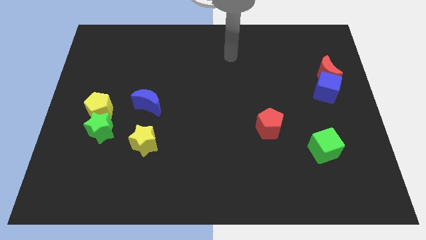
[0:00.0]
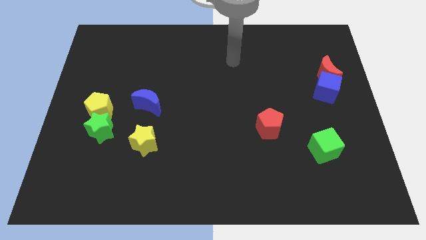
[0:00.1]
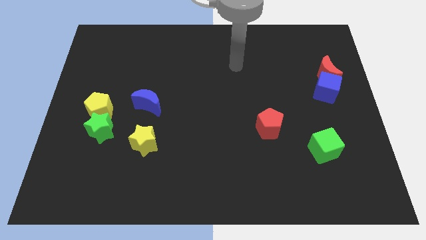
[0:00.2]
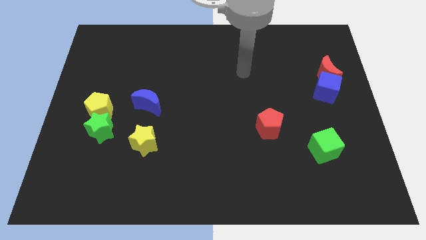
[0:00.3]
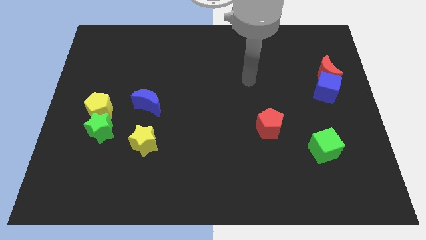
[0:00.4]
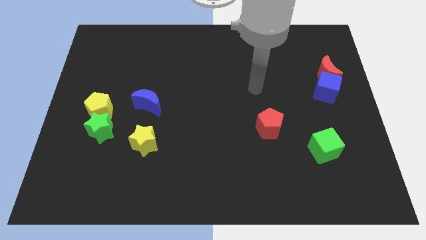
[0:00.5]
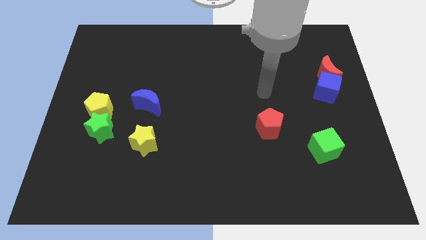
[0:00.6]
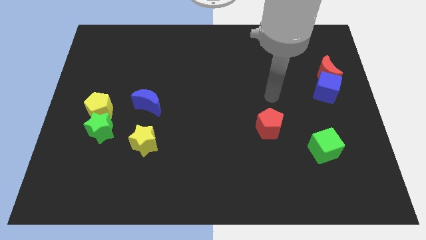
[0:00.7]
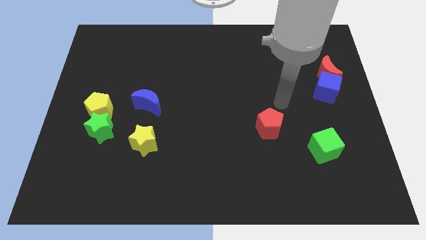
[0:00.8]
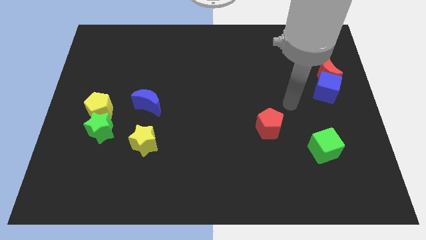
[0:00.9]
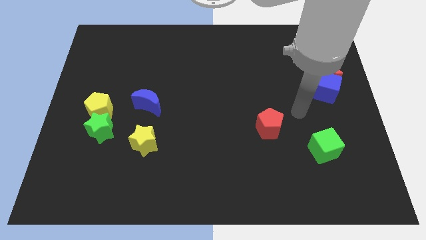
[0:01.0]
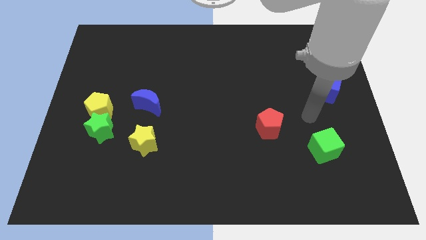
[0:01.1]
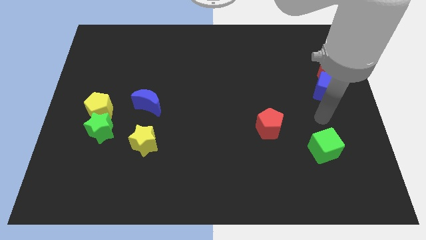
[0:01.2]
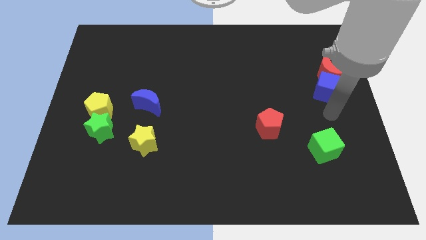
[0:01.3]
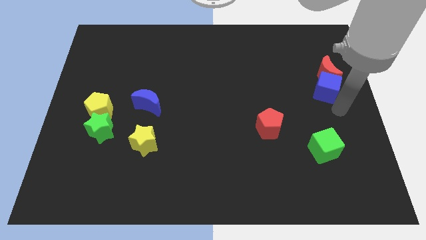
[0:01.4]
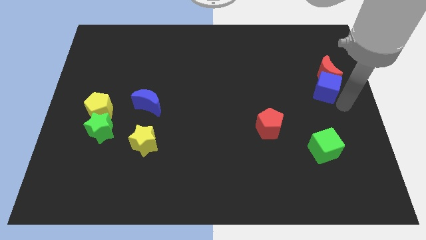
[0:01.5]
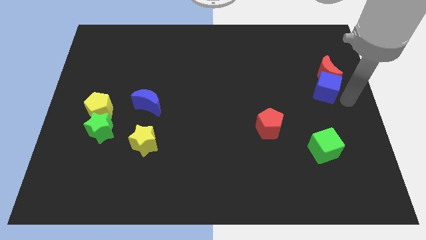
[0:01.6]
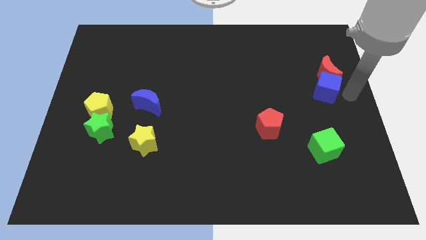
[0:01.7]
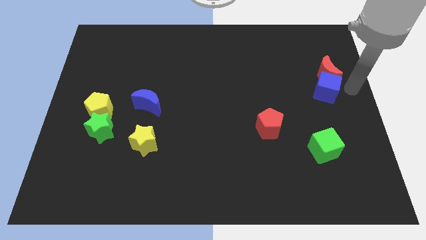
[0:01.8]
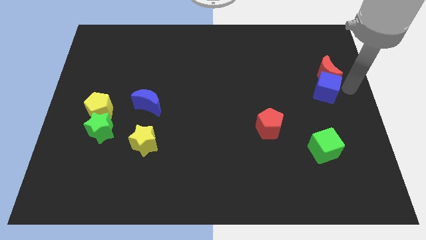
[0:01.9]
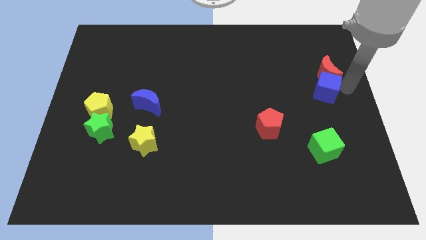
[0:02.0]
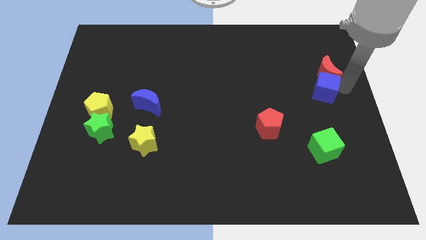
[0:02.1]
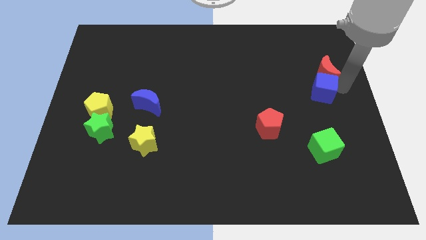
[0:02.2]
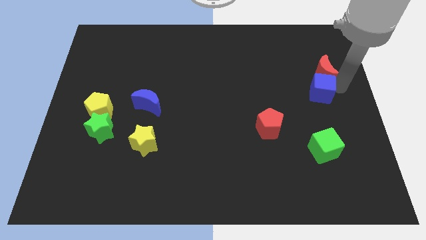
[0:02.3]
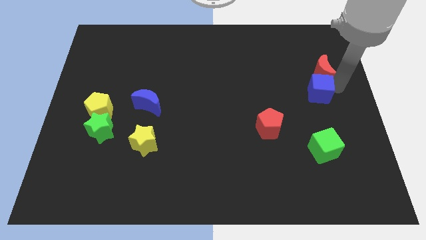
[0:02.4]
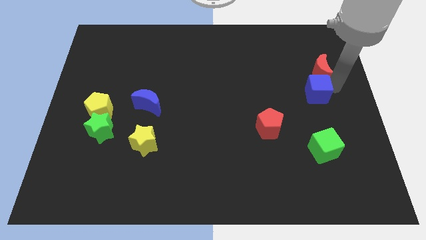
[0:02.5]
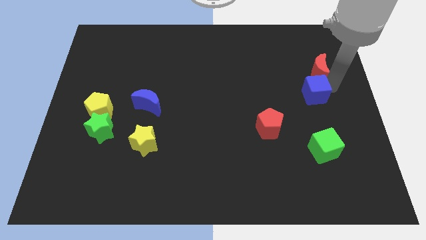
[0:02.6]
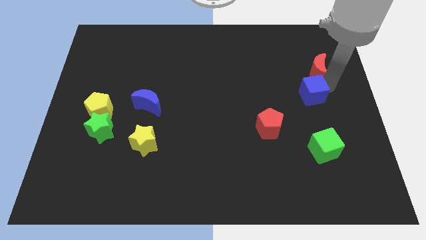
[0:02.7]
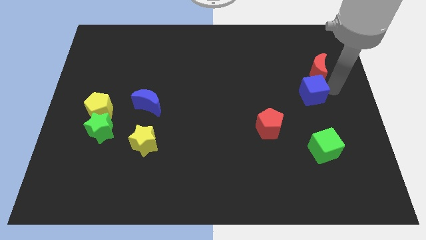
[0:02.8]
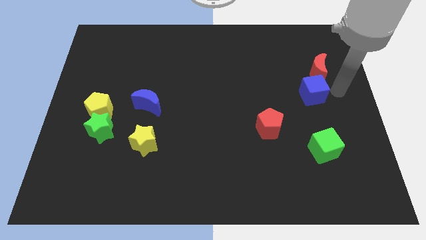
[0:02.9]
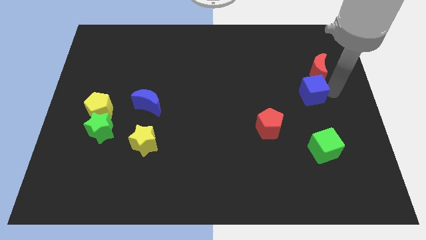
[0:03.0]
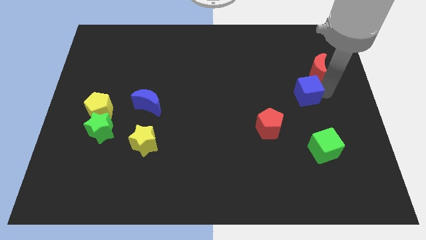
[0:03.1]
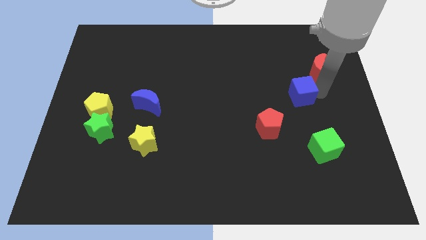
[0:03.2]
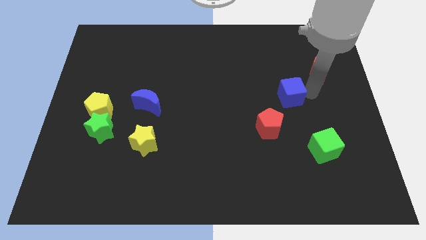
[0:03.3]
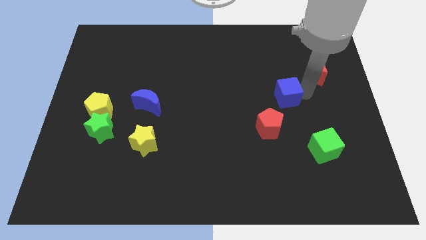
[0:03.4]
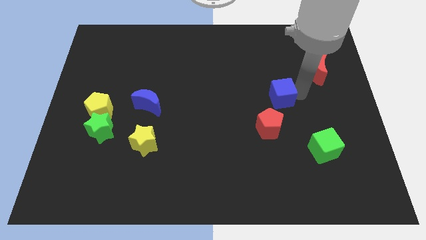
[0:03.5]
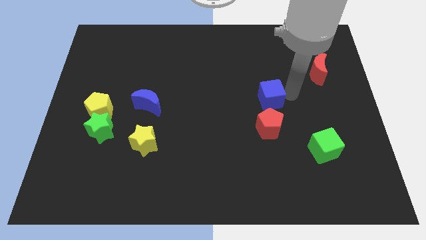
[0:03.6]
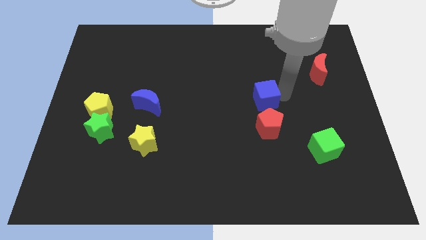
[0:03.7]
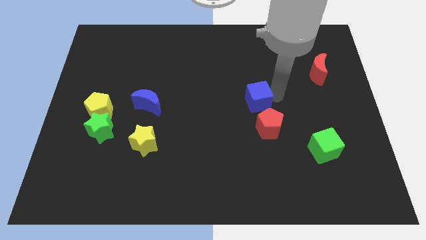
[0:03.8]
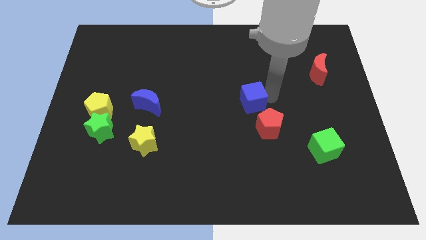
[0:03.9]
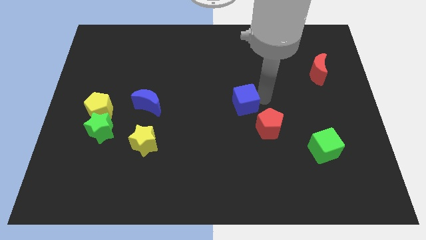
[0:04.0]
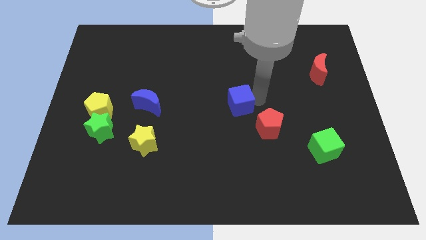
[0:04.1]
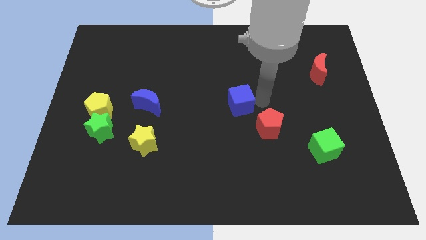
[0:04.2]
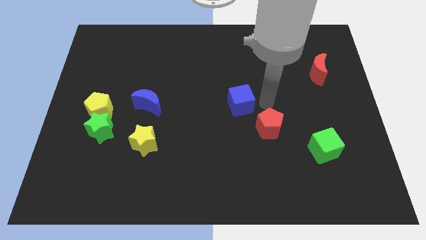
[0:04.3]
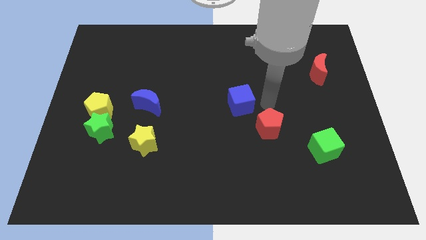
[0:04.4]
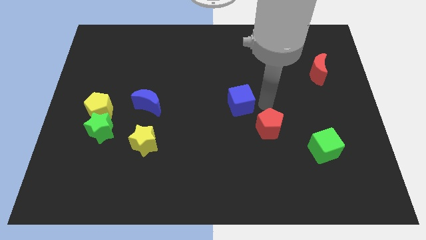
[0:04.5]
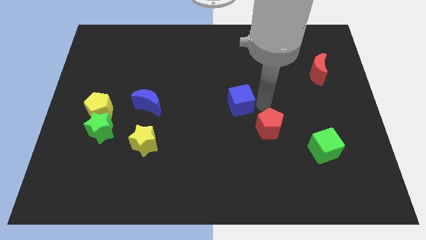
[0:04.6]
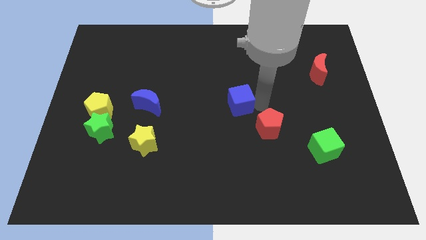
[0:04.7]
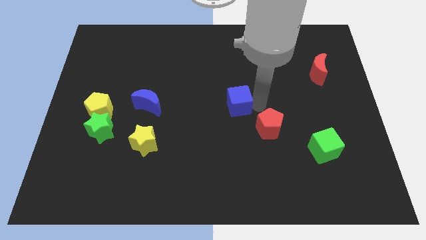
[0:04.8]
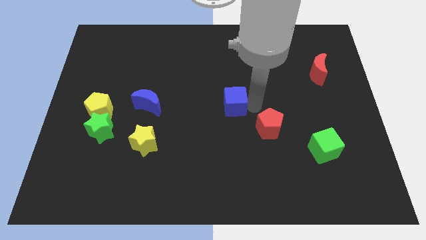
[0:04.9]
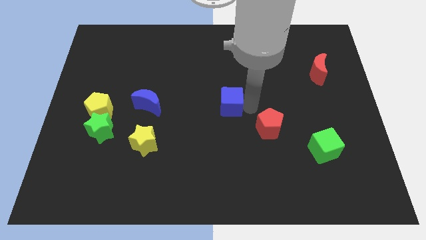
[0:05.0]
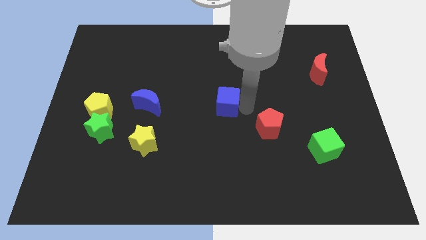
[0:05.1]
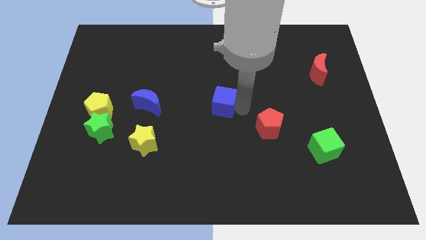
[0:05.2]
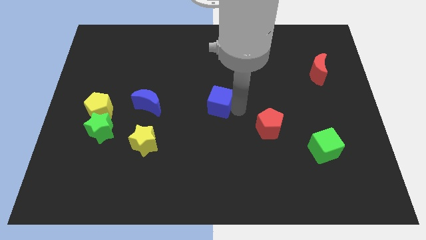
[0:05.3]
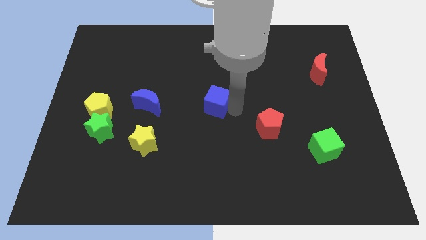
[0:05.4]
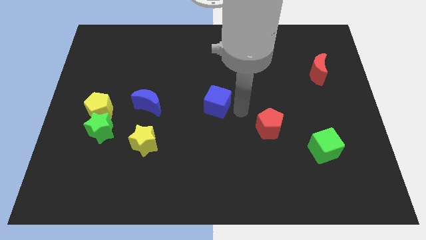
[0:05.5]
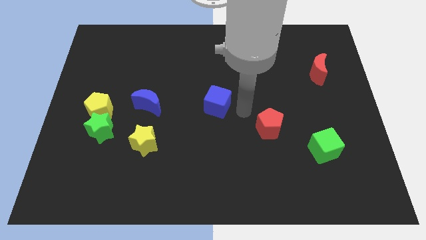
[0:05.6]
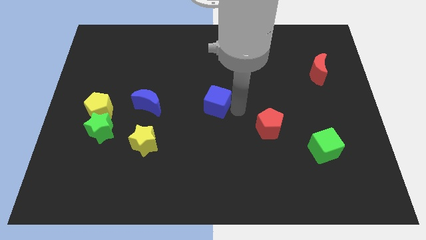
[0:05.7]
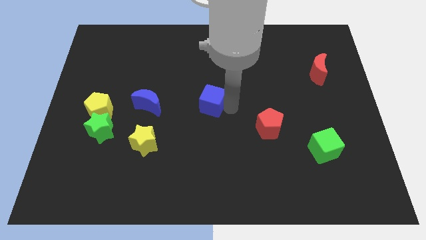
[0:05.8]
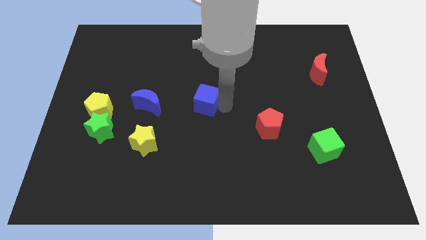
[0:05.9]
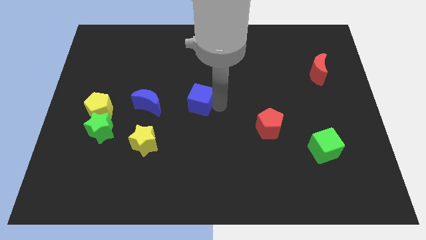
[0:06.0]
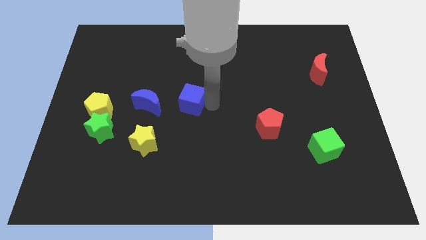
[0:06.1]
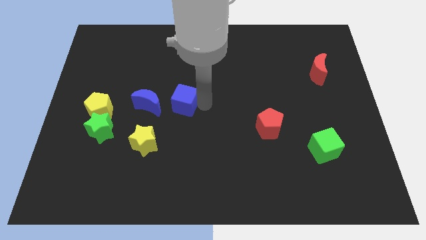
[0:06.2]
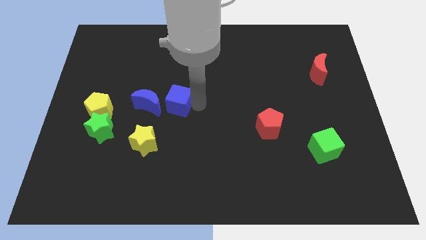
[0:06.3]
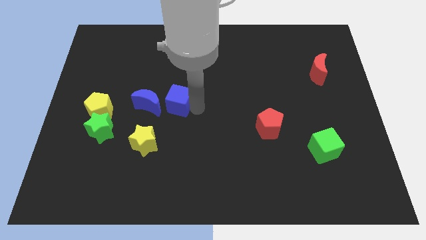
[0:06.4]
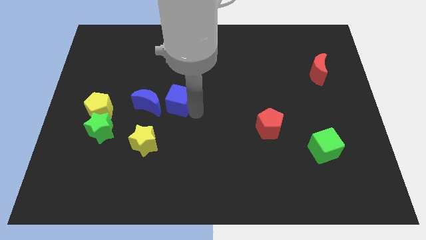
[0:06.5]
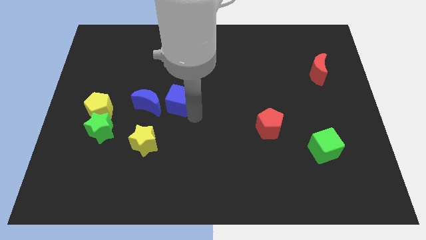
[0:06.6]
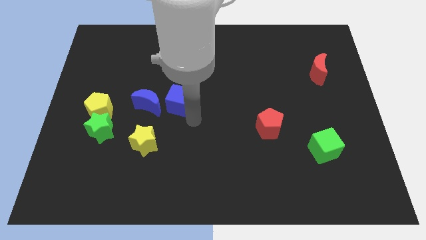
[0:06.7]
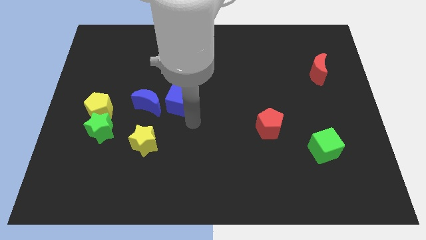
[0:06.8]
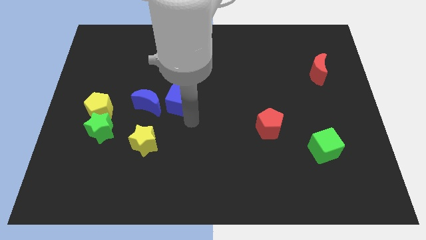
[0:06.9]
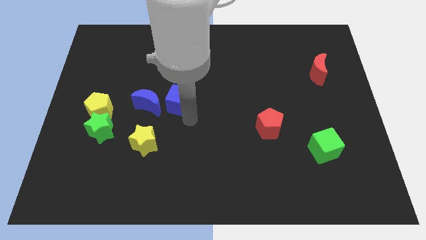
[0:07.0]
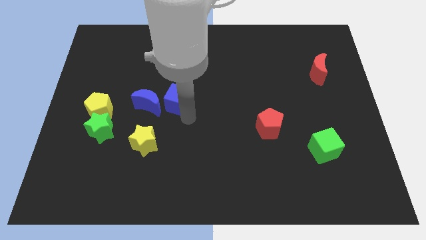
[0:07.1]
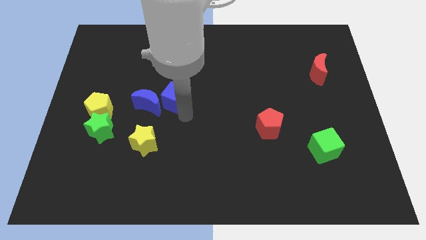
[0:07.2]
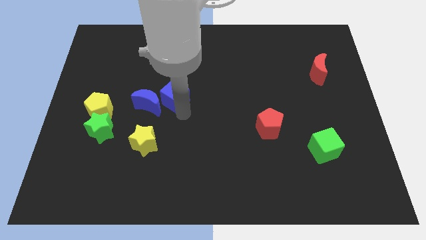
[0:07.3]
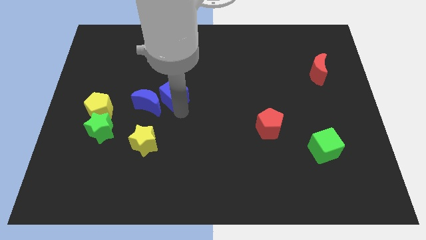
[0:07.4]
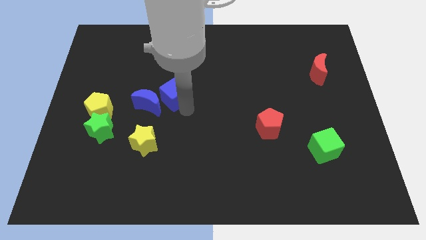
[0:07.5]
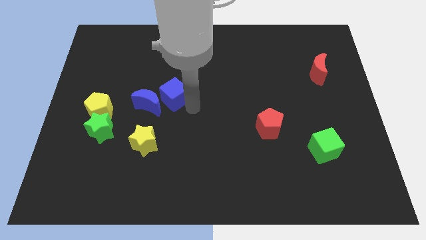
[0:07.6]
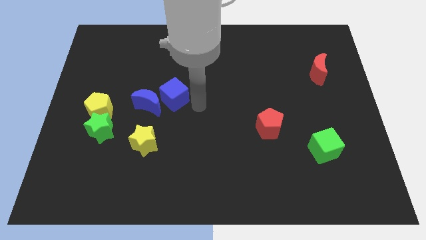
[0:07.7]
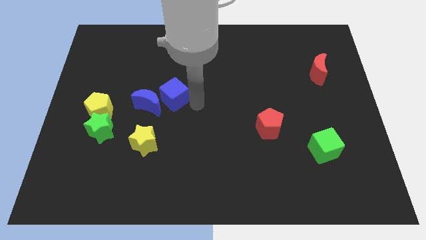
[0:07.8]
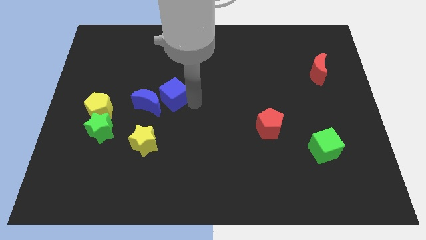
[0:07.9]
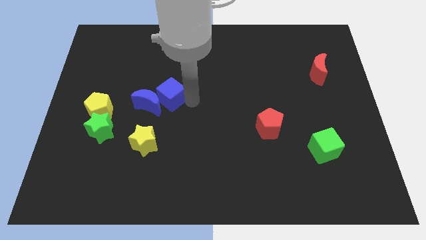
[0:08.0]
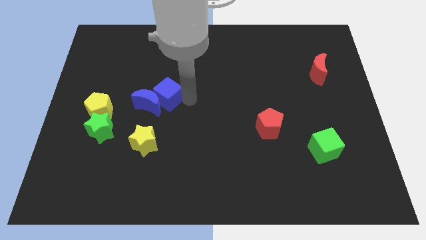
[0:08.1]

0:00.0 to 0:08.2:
put the blue cube to the top side of the yellow star

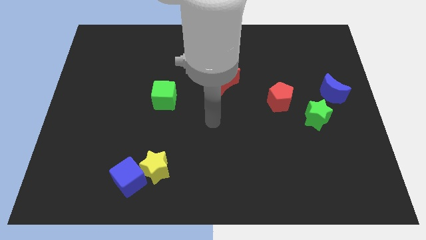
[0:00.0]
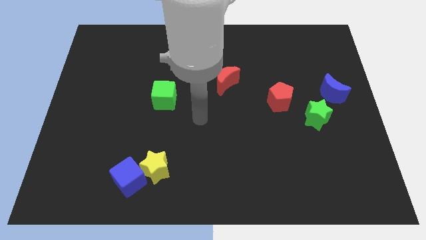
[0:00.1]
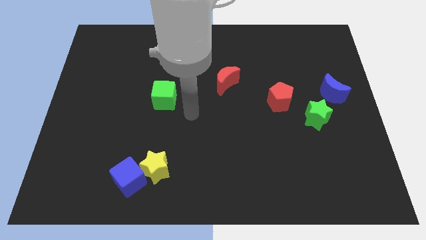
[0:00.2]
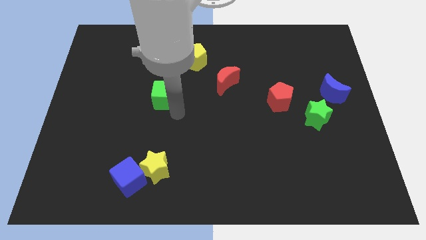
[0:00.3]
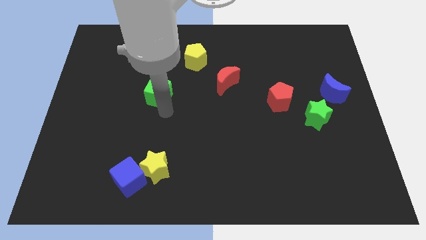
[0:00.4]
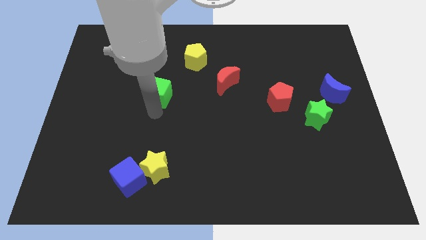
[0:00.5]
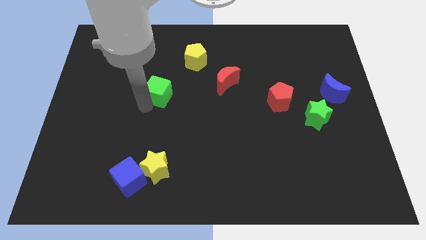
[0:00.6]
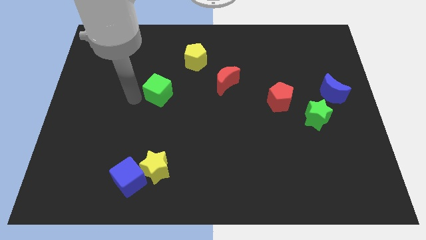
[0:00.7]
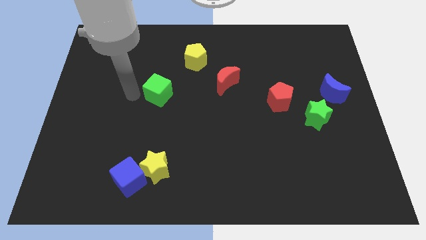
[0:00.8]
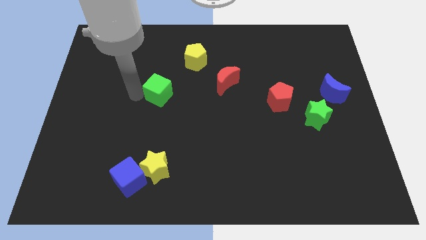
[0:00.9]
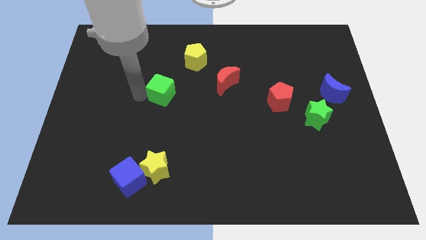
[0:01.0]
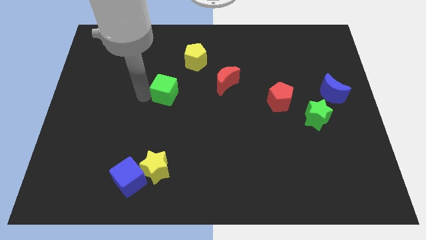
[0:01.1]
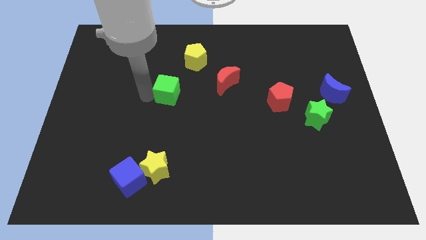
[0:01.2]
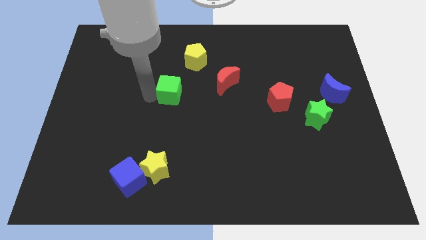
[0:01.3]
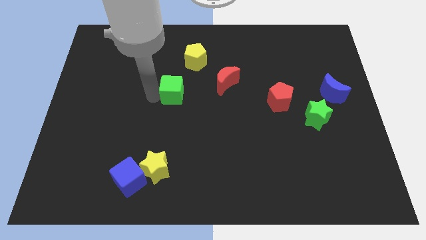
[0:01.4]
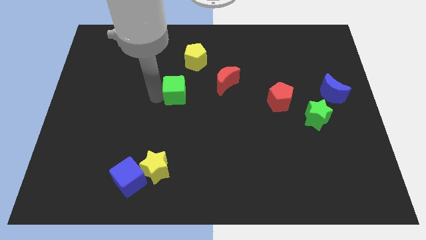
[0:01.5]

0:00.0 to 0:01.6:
slide the green cube to the bottom of the yellow pentagon
